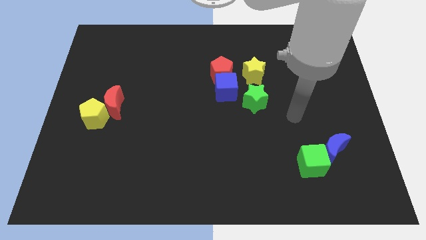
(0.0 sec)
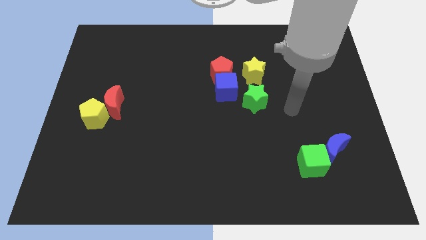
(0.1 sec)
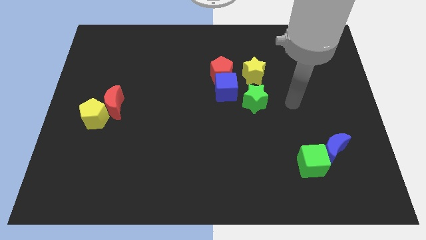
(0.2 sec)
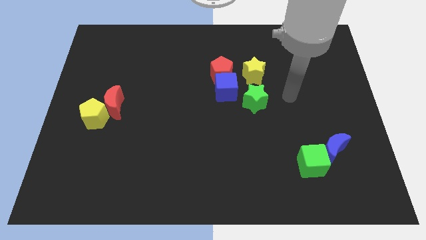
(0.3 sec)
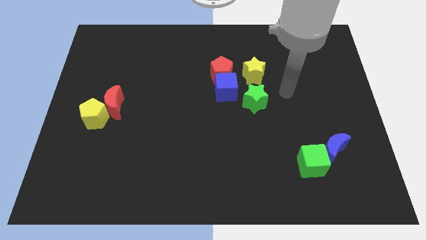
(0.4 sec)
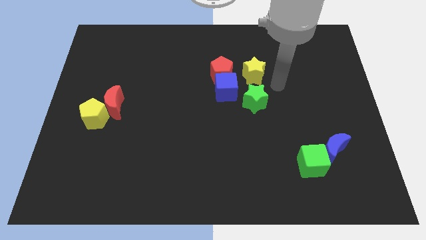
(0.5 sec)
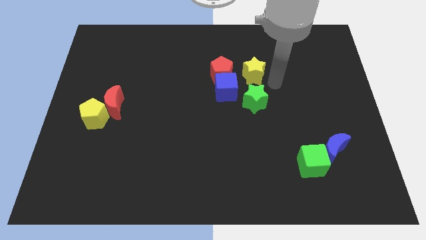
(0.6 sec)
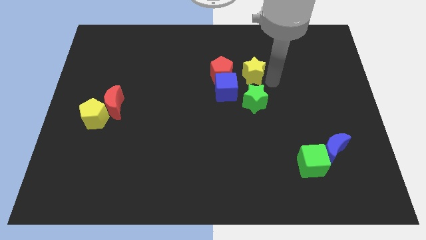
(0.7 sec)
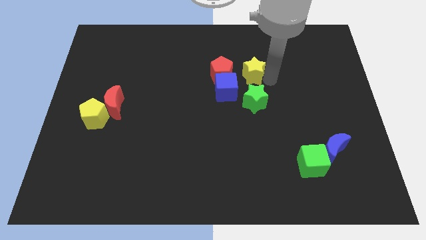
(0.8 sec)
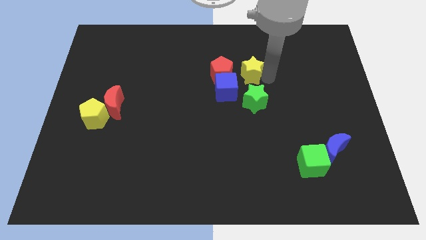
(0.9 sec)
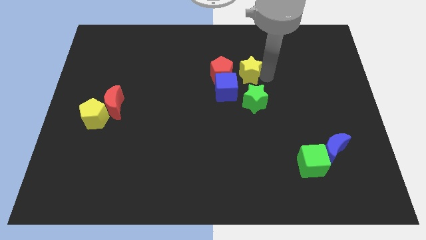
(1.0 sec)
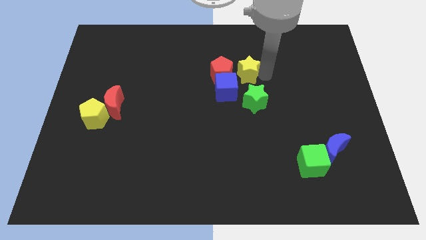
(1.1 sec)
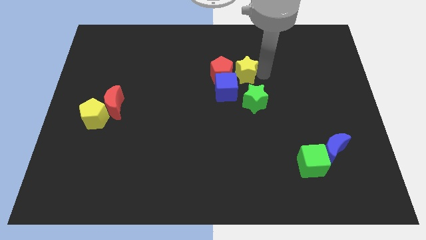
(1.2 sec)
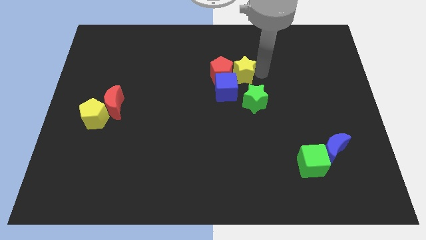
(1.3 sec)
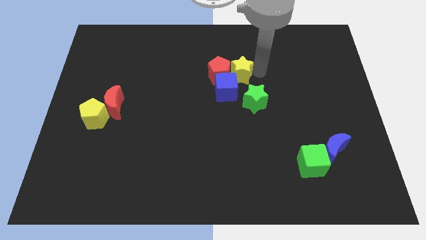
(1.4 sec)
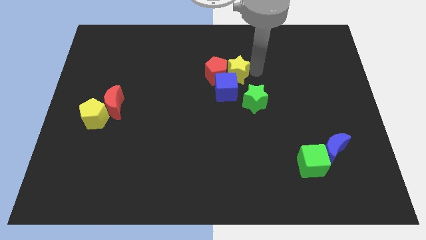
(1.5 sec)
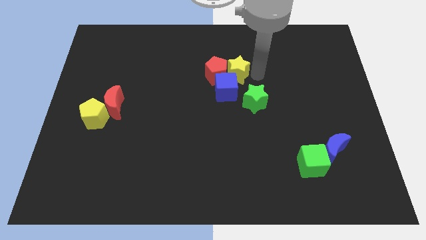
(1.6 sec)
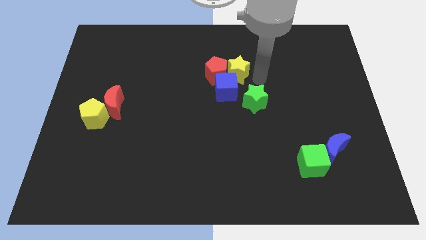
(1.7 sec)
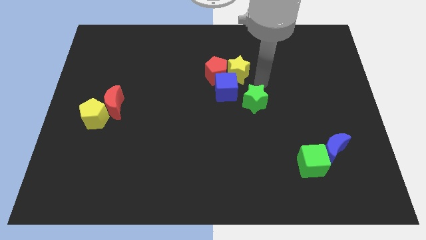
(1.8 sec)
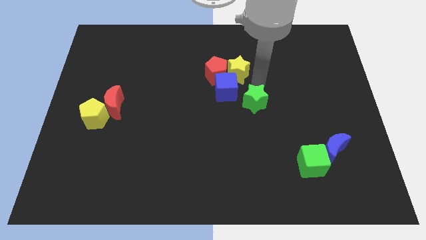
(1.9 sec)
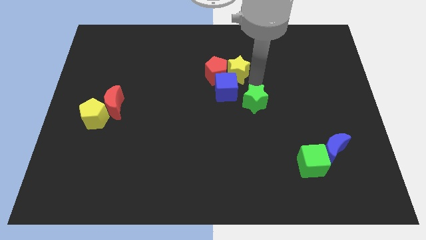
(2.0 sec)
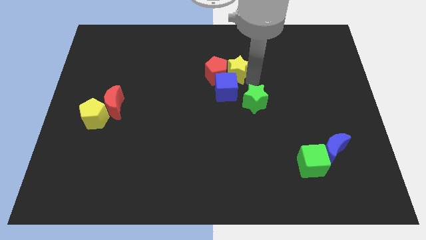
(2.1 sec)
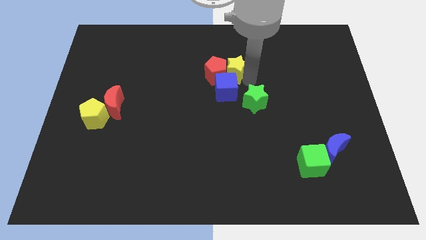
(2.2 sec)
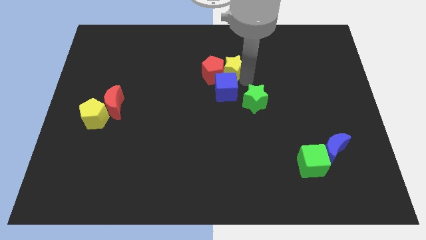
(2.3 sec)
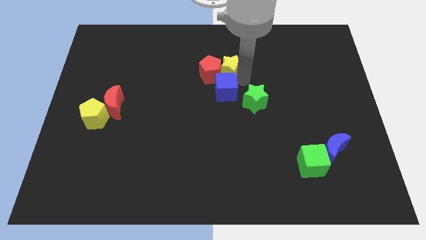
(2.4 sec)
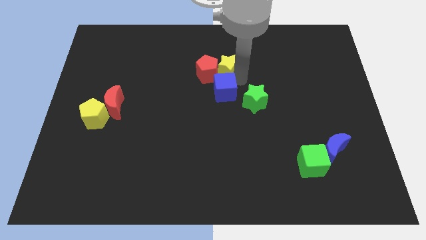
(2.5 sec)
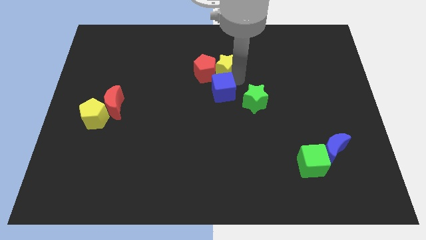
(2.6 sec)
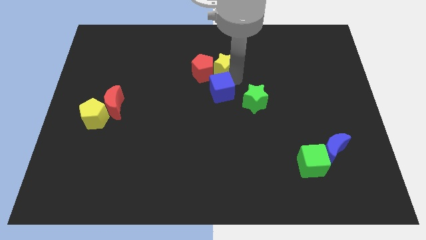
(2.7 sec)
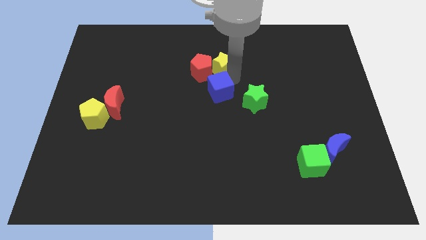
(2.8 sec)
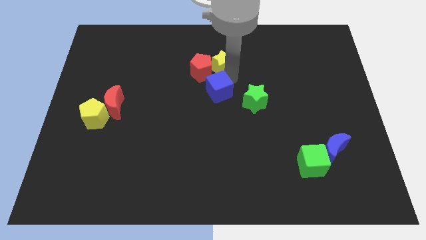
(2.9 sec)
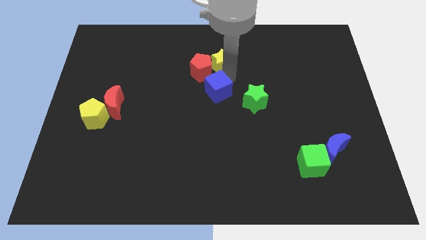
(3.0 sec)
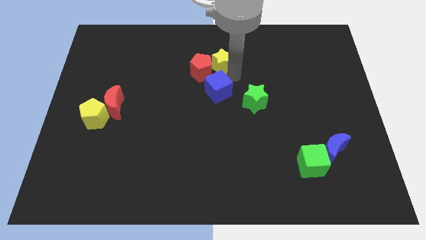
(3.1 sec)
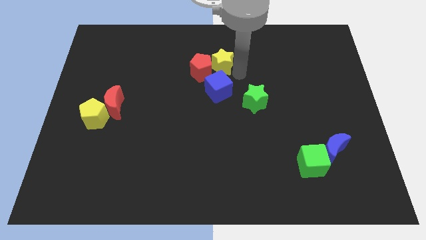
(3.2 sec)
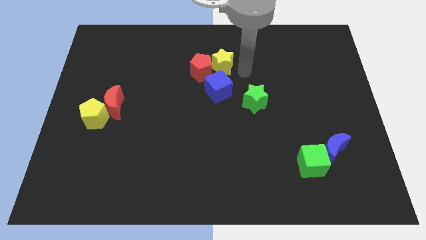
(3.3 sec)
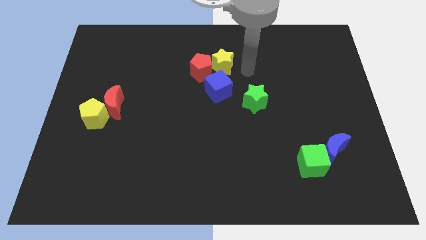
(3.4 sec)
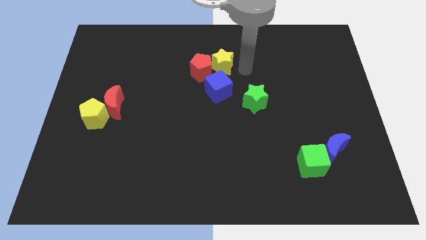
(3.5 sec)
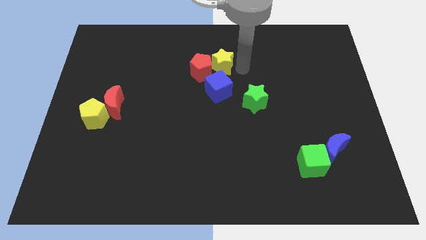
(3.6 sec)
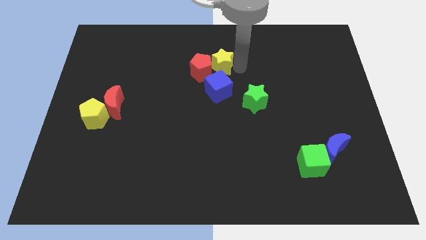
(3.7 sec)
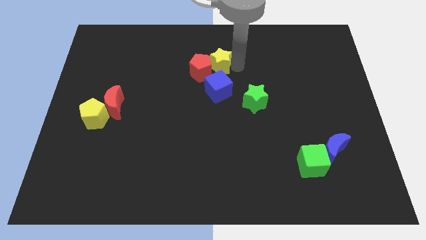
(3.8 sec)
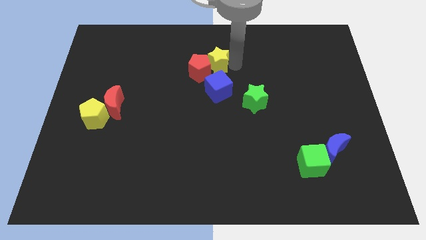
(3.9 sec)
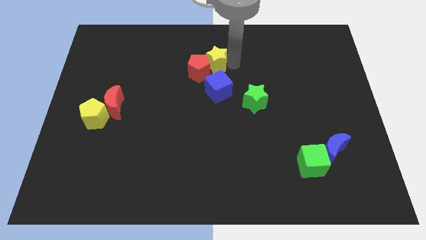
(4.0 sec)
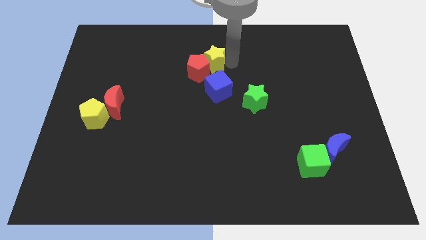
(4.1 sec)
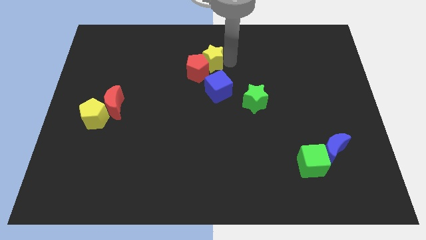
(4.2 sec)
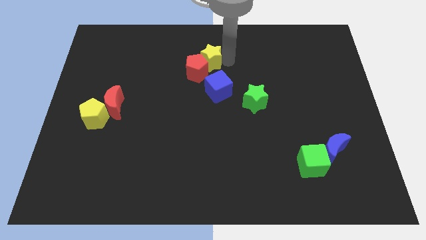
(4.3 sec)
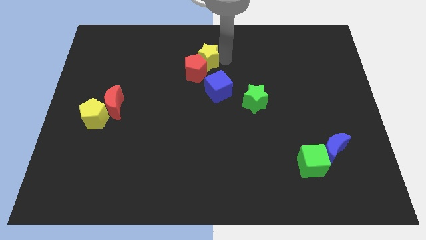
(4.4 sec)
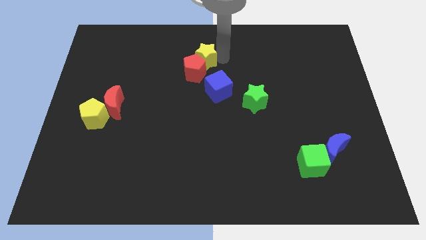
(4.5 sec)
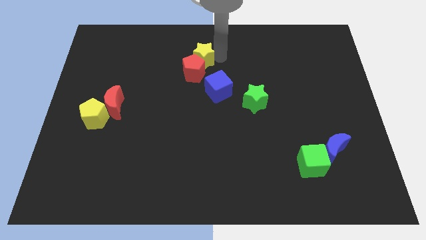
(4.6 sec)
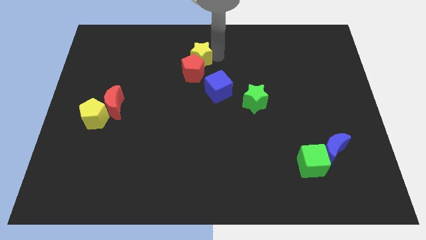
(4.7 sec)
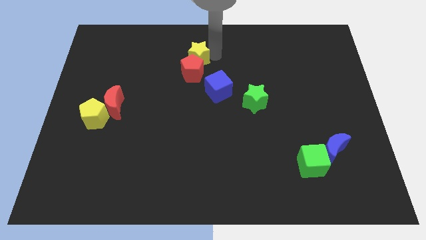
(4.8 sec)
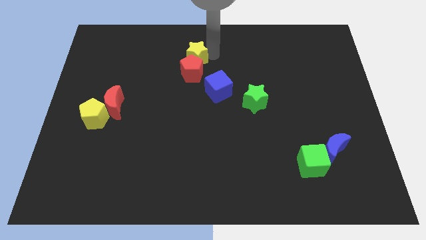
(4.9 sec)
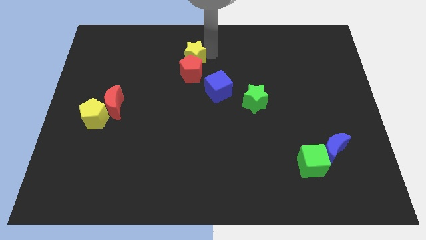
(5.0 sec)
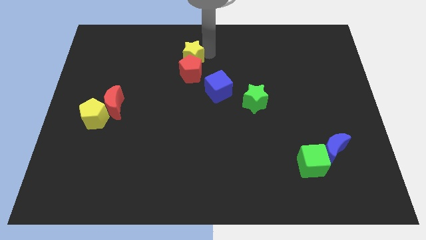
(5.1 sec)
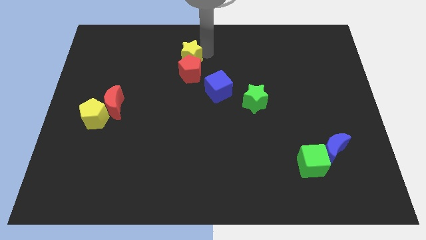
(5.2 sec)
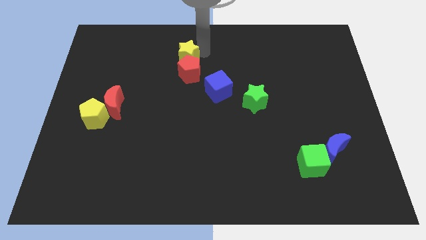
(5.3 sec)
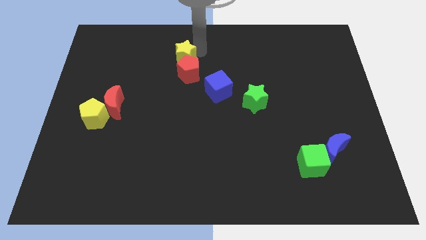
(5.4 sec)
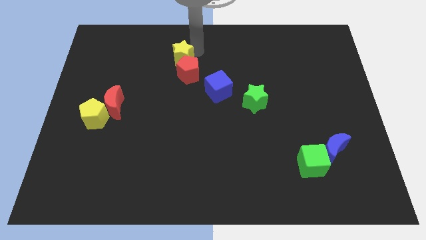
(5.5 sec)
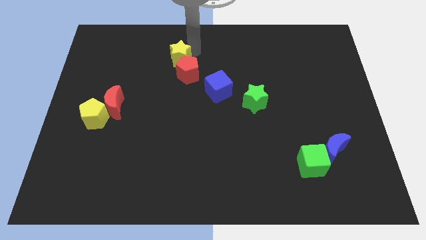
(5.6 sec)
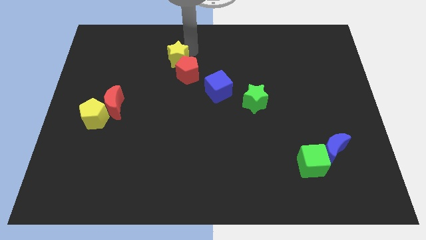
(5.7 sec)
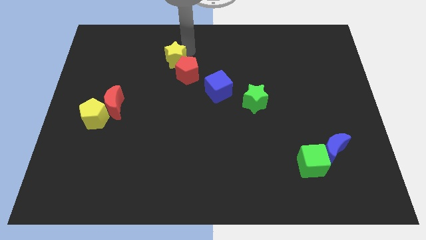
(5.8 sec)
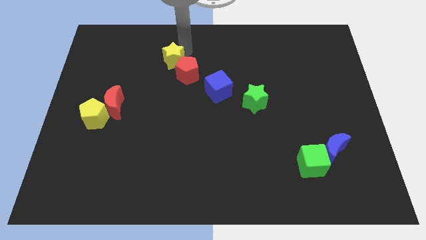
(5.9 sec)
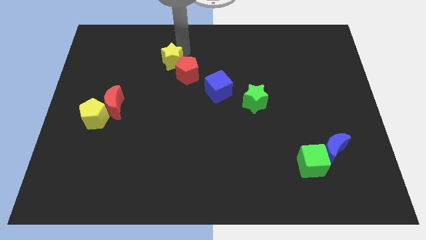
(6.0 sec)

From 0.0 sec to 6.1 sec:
push the yellow star to the left

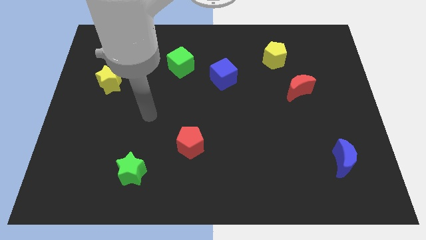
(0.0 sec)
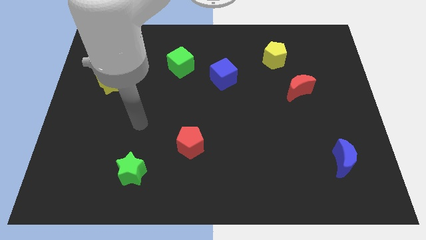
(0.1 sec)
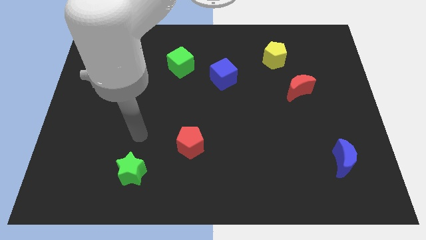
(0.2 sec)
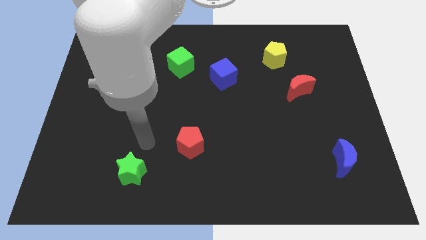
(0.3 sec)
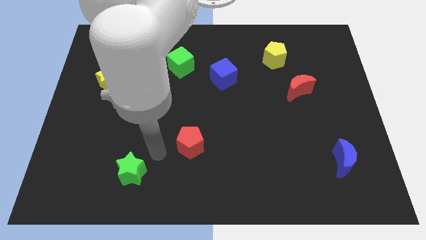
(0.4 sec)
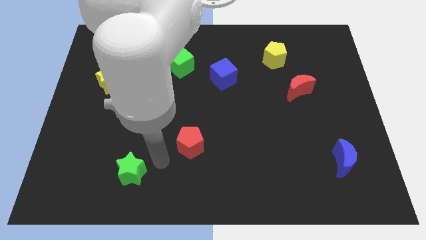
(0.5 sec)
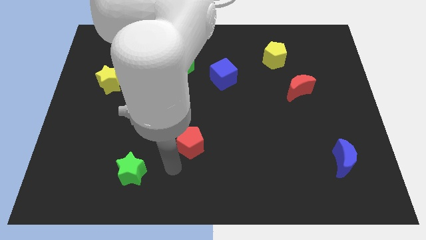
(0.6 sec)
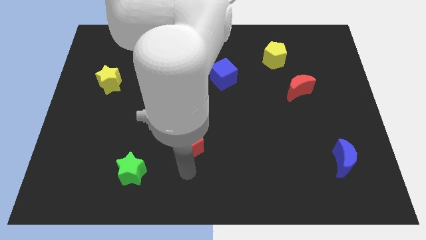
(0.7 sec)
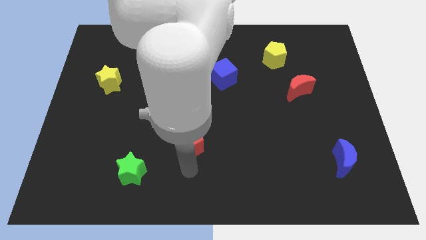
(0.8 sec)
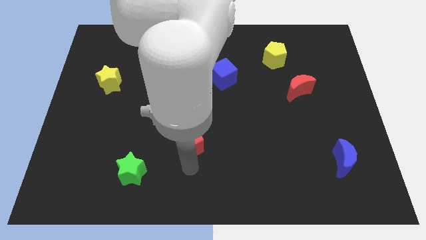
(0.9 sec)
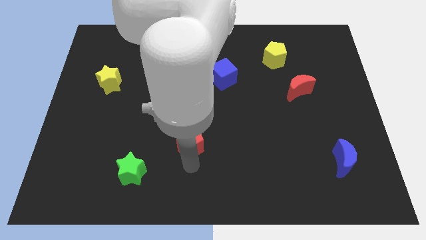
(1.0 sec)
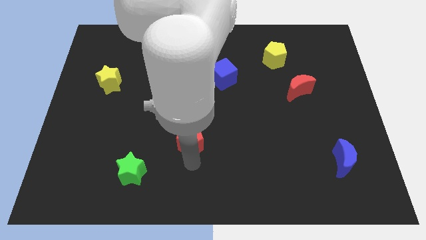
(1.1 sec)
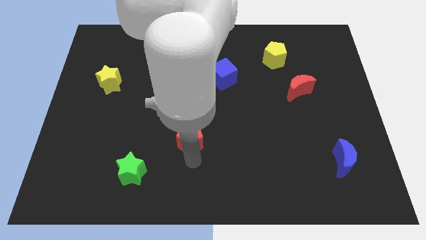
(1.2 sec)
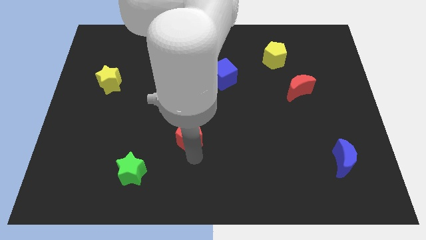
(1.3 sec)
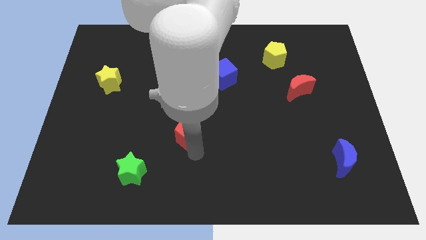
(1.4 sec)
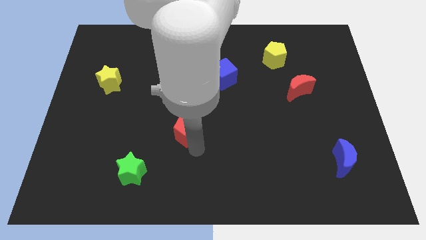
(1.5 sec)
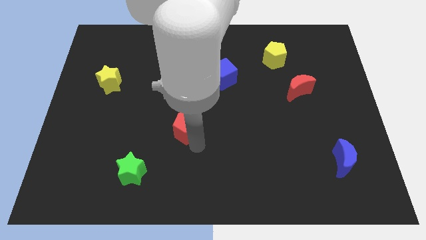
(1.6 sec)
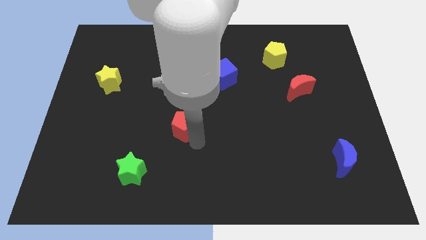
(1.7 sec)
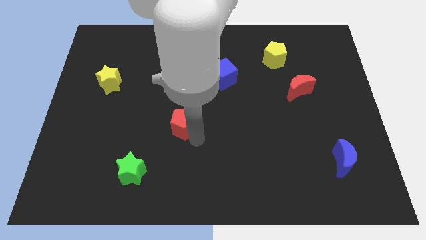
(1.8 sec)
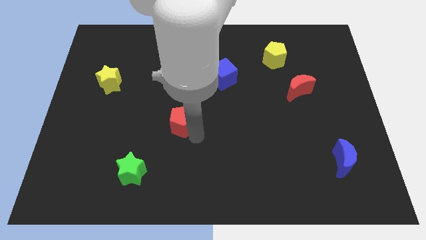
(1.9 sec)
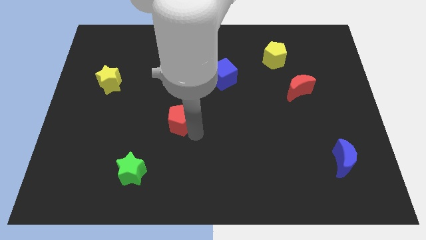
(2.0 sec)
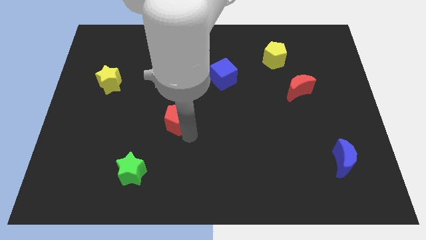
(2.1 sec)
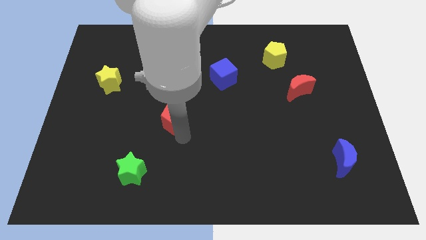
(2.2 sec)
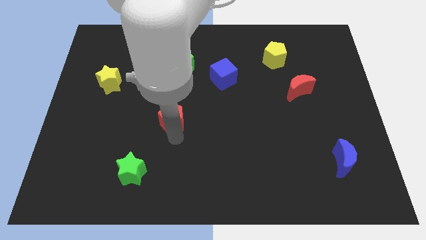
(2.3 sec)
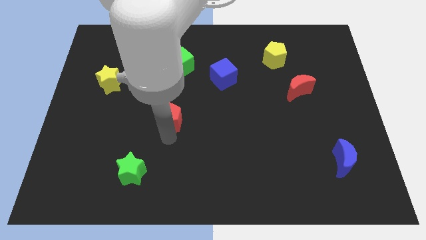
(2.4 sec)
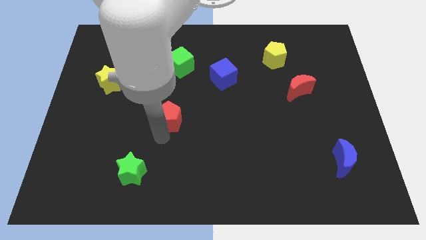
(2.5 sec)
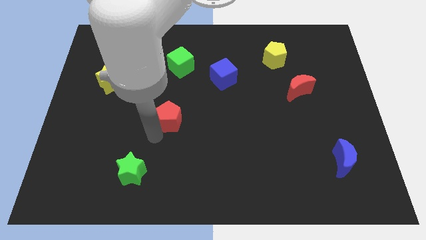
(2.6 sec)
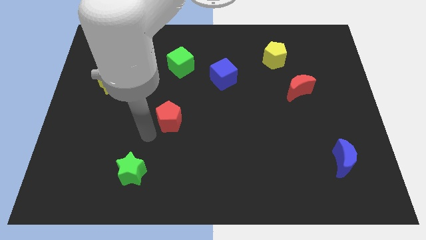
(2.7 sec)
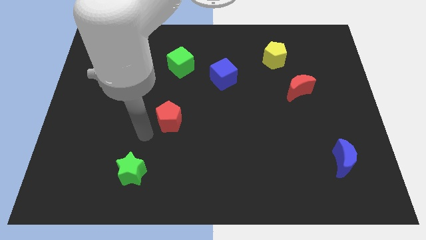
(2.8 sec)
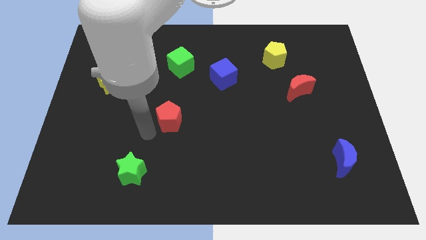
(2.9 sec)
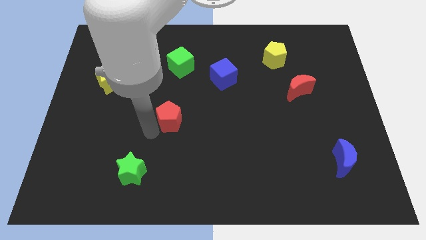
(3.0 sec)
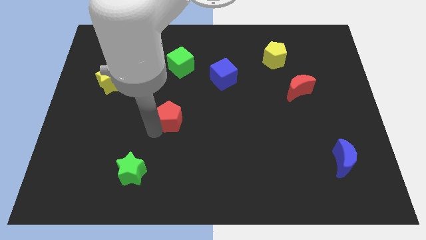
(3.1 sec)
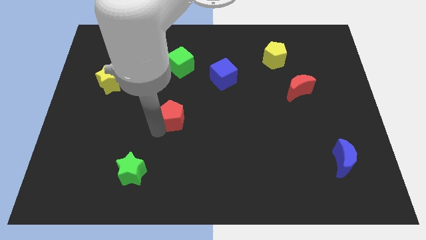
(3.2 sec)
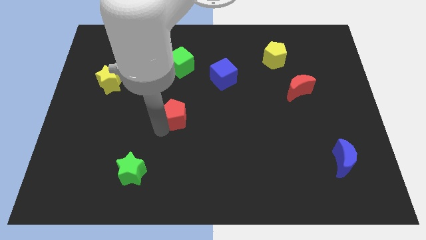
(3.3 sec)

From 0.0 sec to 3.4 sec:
slightly slide the red pentagon up
